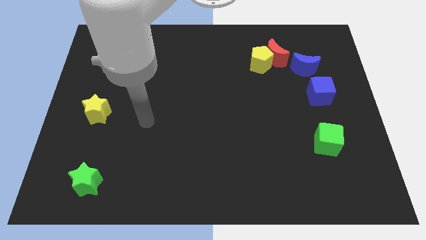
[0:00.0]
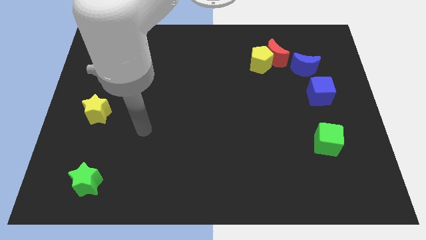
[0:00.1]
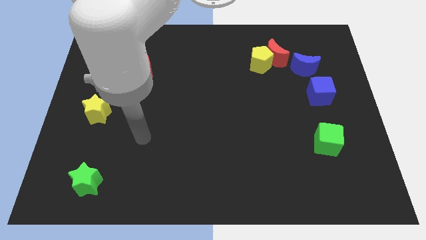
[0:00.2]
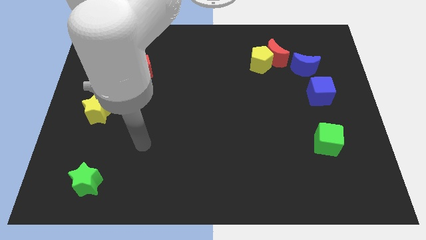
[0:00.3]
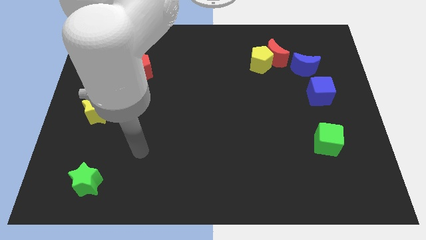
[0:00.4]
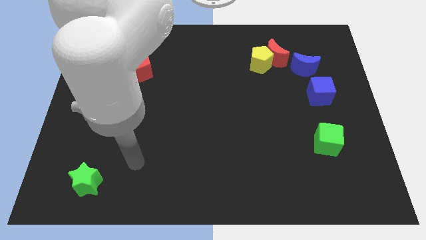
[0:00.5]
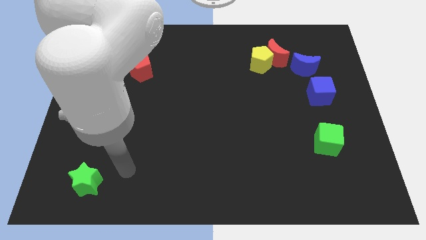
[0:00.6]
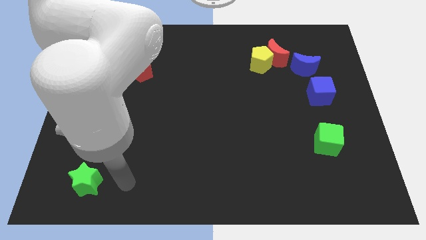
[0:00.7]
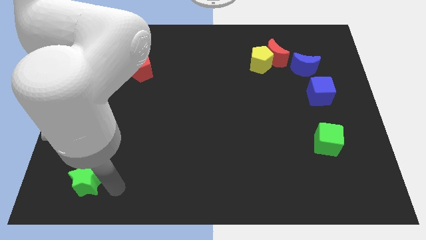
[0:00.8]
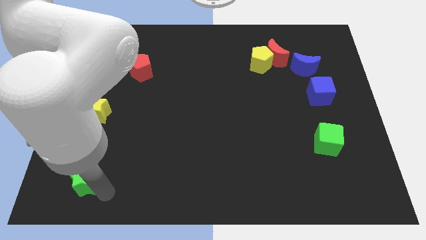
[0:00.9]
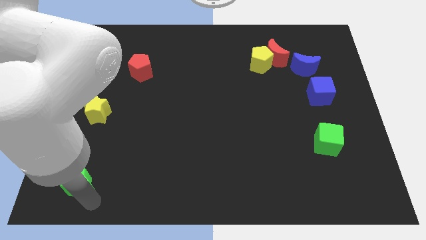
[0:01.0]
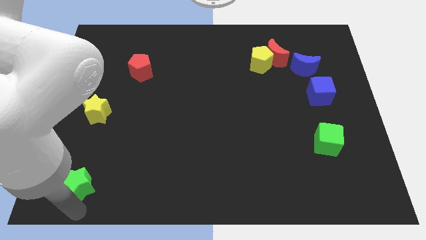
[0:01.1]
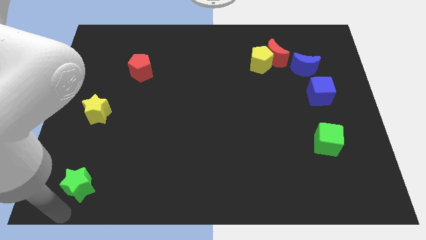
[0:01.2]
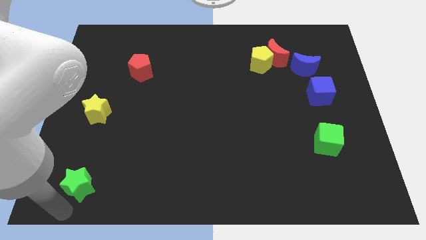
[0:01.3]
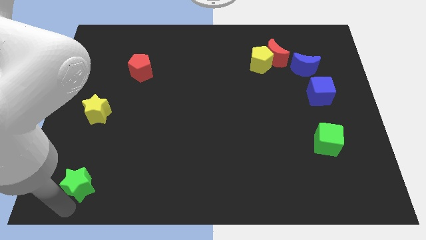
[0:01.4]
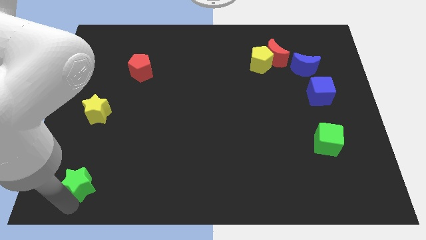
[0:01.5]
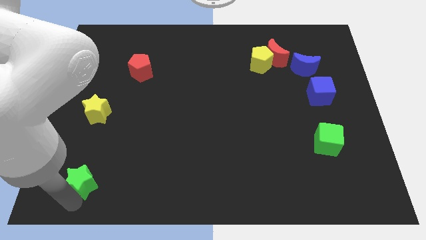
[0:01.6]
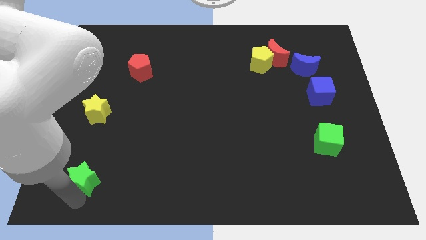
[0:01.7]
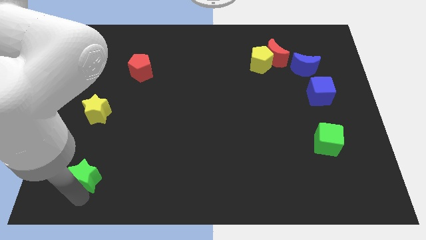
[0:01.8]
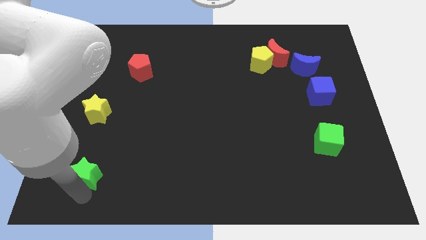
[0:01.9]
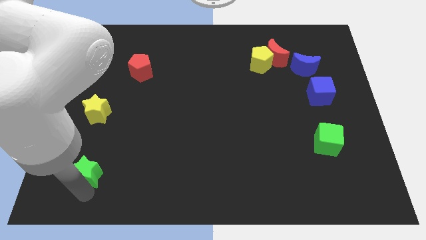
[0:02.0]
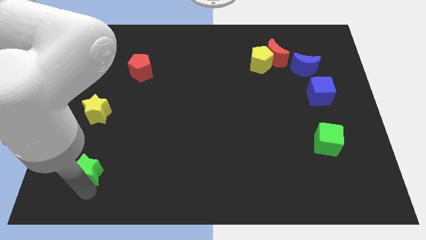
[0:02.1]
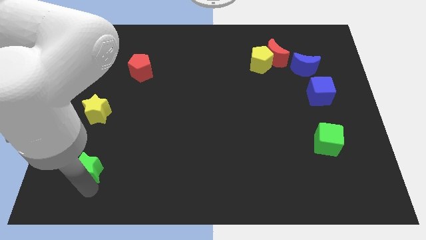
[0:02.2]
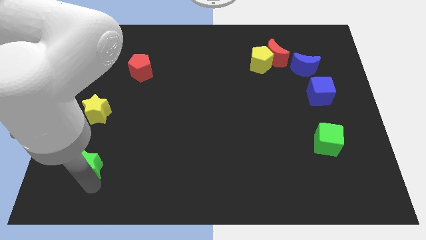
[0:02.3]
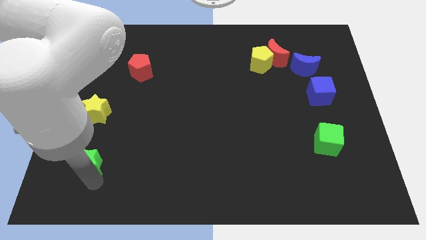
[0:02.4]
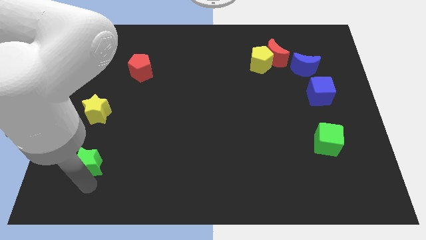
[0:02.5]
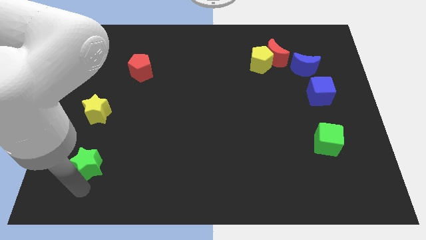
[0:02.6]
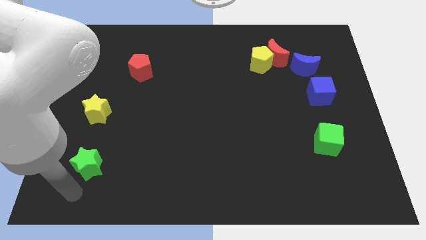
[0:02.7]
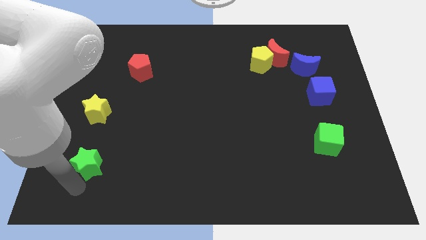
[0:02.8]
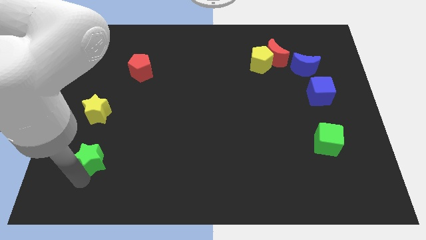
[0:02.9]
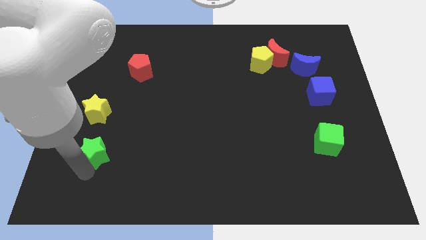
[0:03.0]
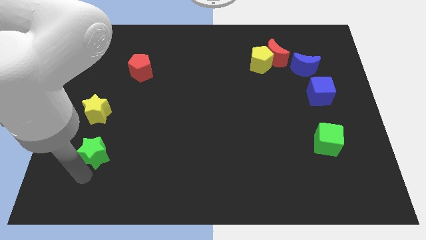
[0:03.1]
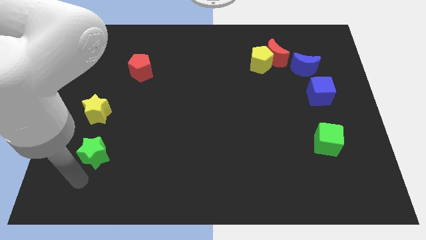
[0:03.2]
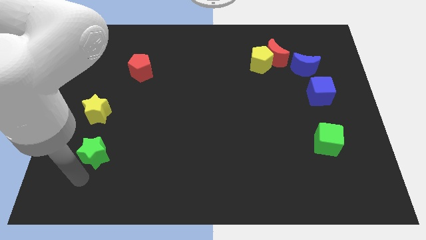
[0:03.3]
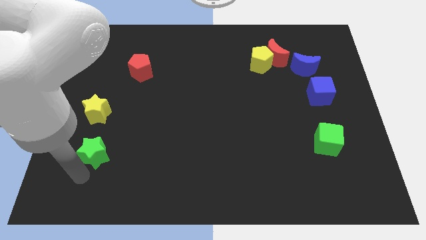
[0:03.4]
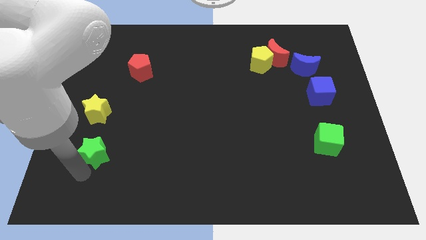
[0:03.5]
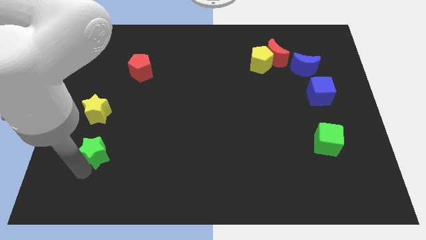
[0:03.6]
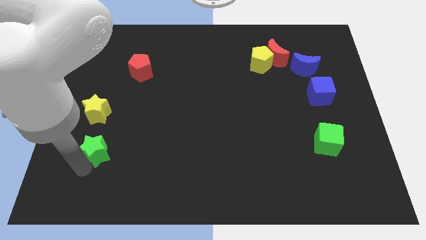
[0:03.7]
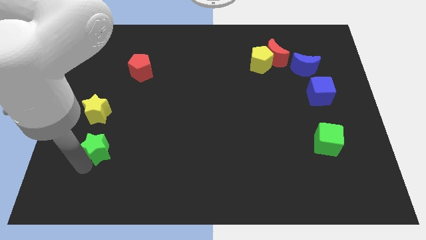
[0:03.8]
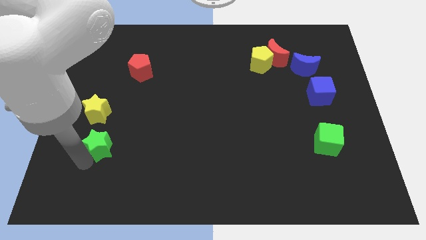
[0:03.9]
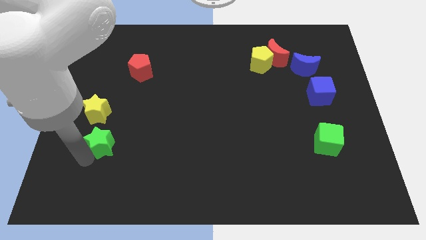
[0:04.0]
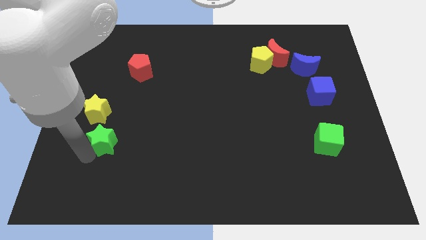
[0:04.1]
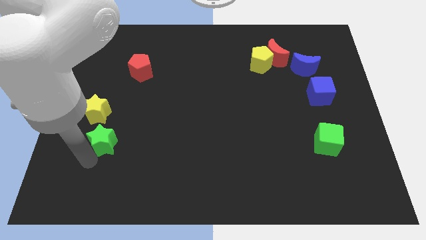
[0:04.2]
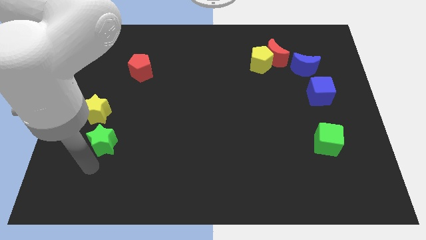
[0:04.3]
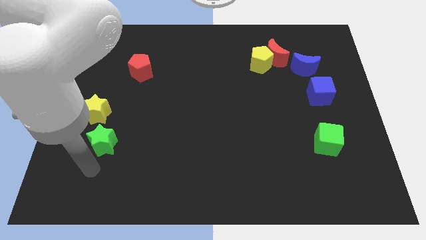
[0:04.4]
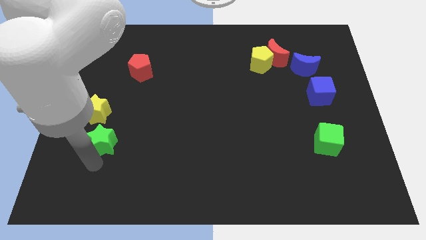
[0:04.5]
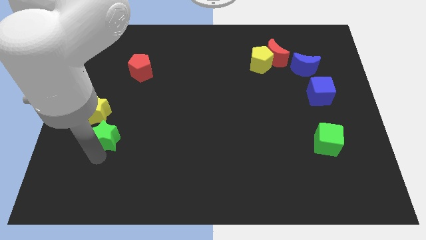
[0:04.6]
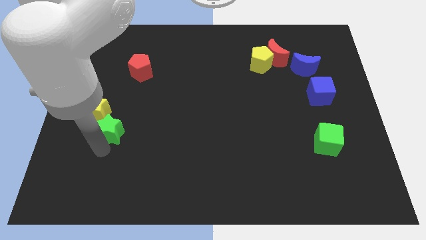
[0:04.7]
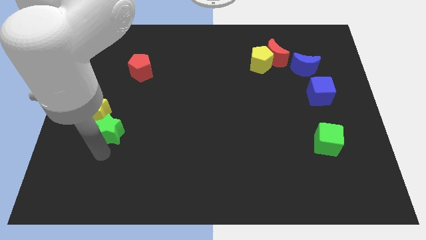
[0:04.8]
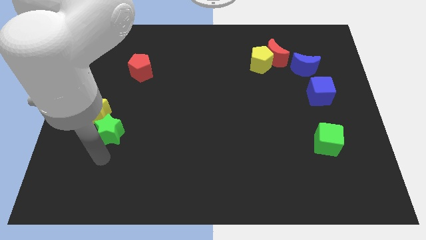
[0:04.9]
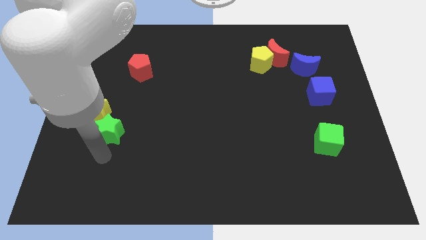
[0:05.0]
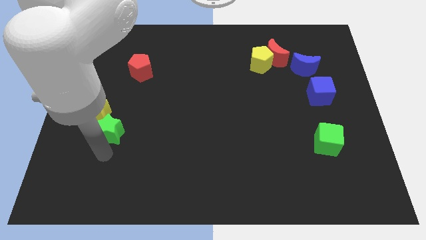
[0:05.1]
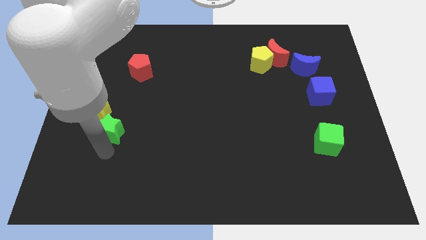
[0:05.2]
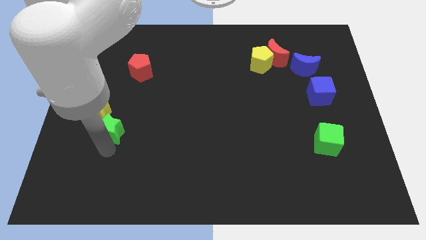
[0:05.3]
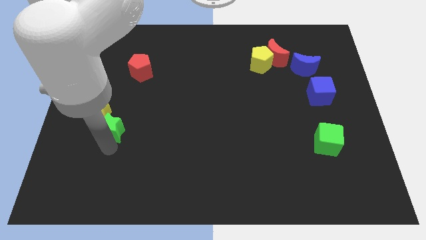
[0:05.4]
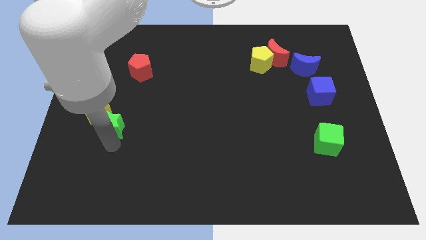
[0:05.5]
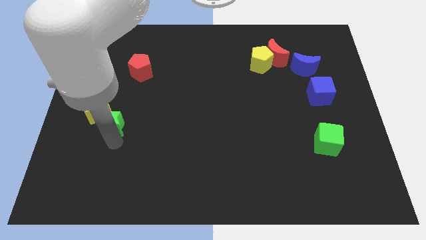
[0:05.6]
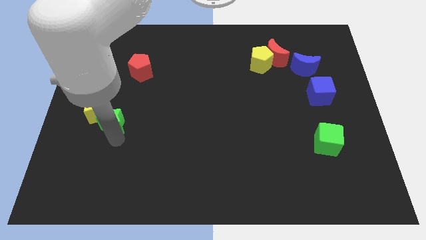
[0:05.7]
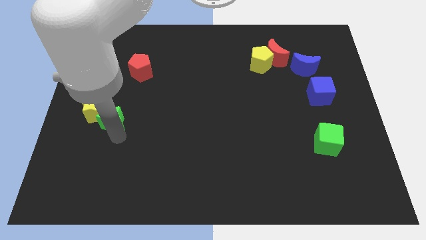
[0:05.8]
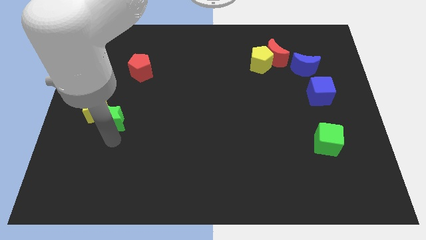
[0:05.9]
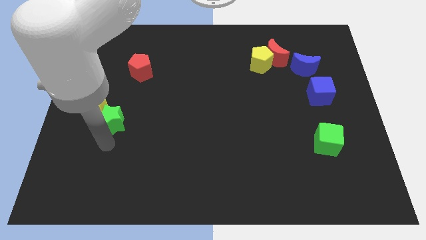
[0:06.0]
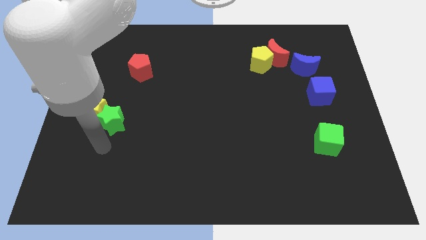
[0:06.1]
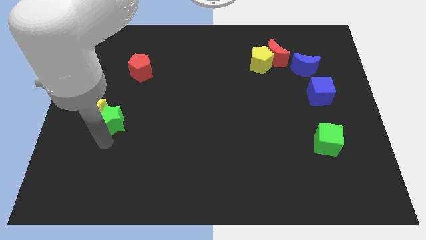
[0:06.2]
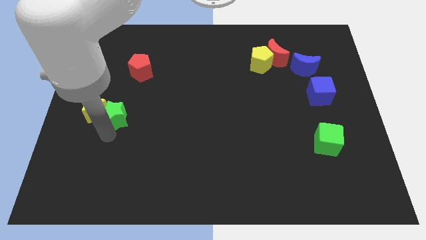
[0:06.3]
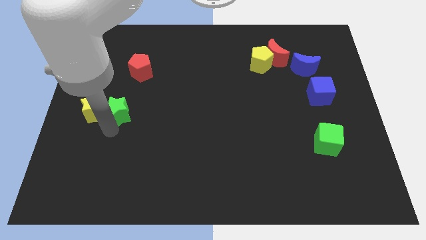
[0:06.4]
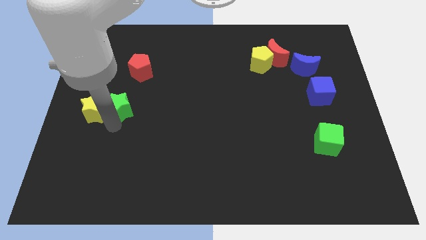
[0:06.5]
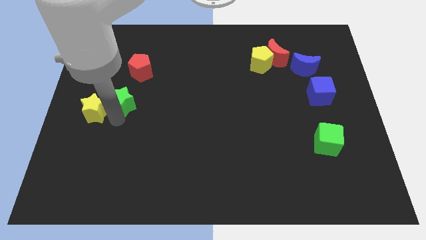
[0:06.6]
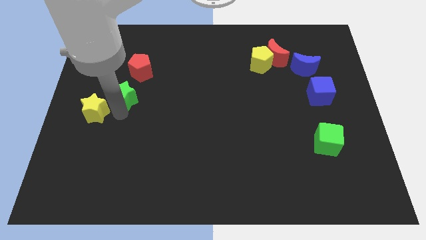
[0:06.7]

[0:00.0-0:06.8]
push the green star up

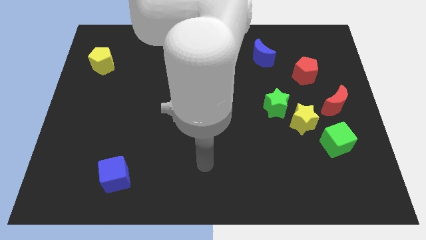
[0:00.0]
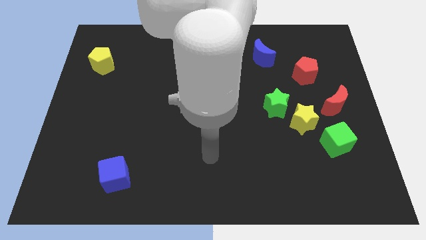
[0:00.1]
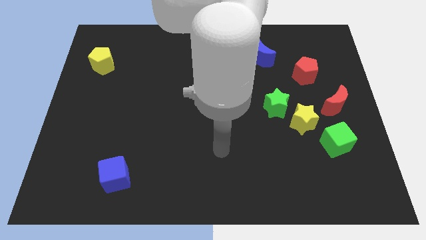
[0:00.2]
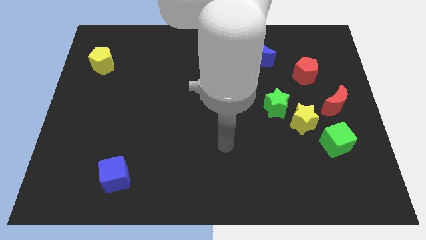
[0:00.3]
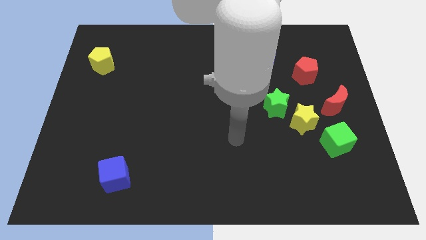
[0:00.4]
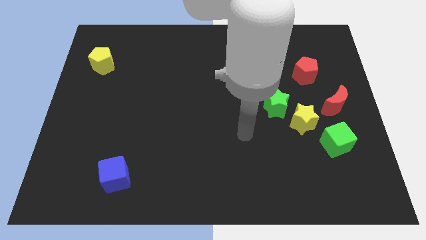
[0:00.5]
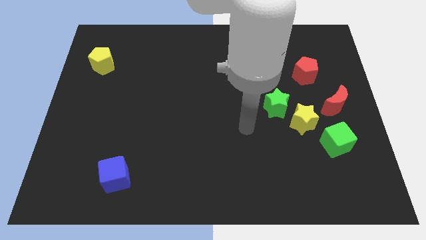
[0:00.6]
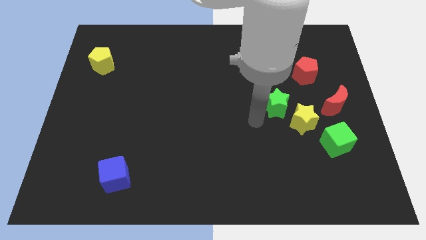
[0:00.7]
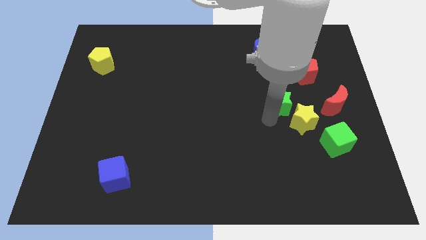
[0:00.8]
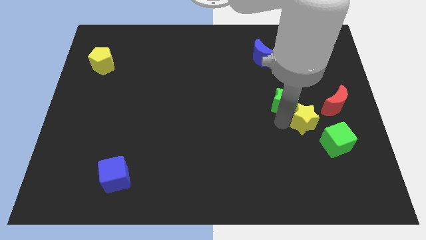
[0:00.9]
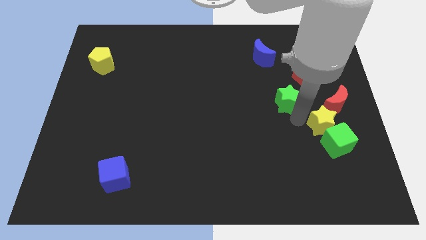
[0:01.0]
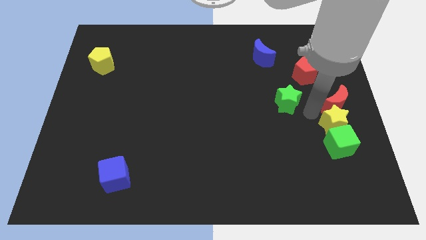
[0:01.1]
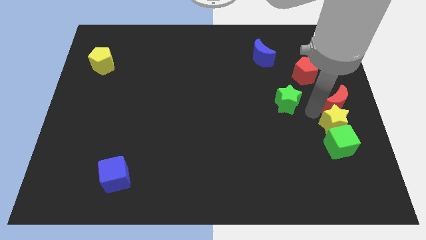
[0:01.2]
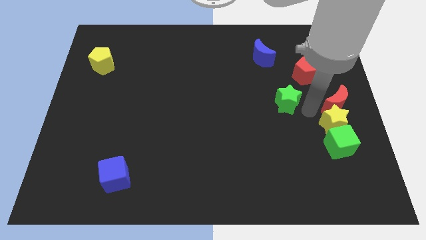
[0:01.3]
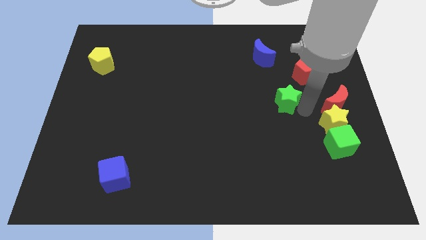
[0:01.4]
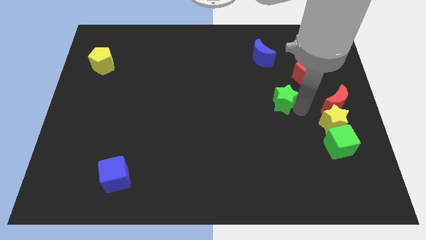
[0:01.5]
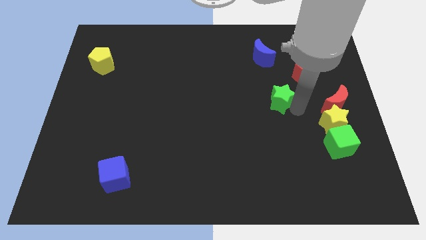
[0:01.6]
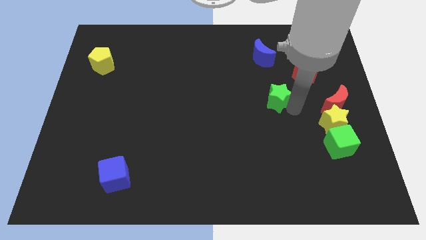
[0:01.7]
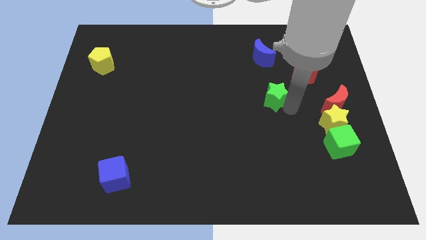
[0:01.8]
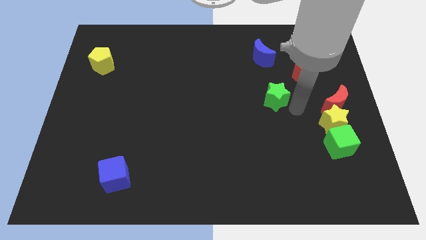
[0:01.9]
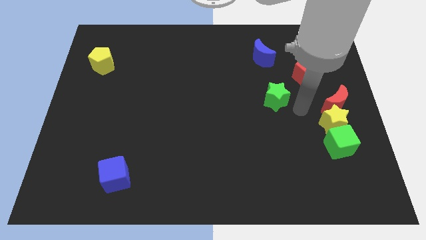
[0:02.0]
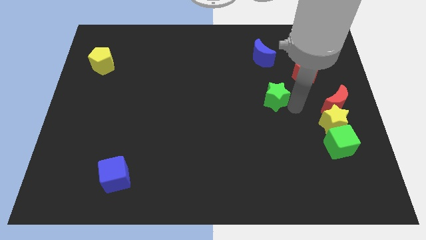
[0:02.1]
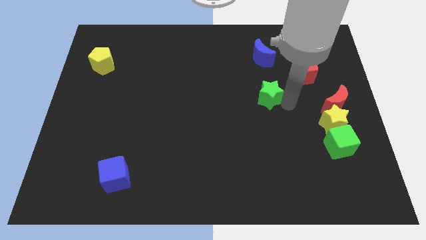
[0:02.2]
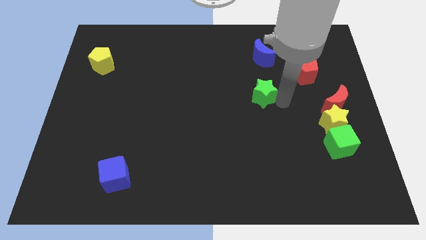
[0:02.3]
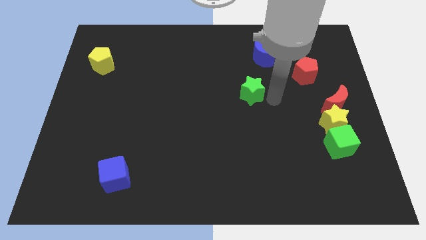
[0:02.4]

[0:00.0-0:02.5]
push the green star up and left a little bit
